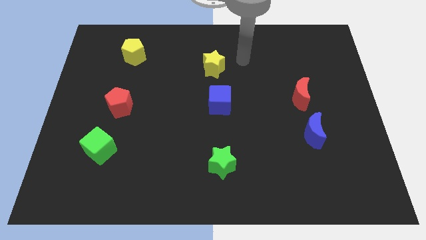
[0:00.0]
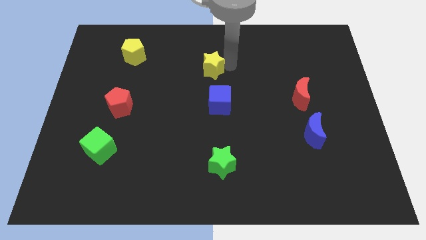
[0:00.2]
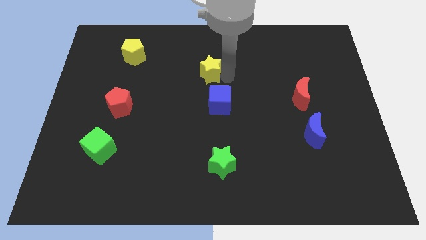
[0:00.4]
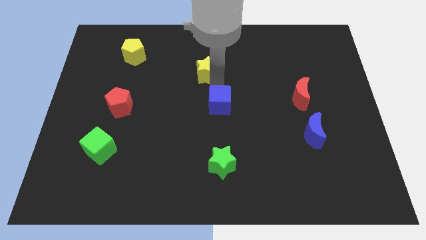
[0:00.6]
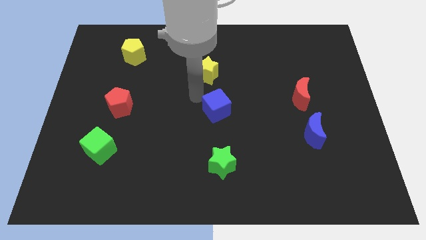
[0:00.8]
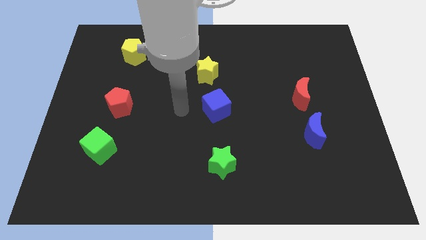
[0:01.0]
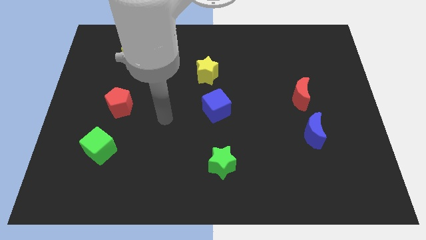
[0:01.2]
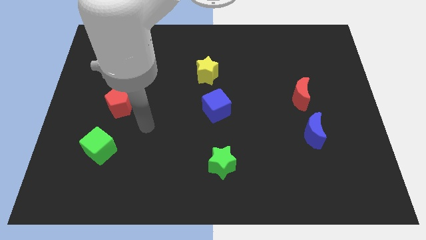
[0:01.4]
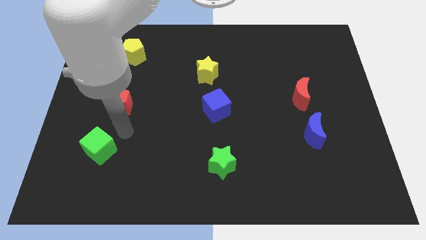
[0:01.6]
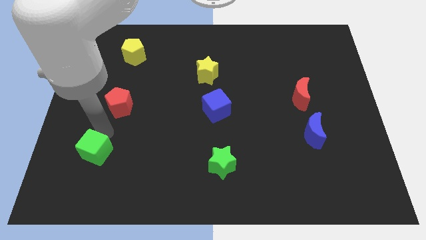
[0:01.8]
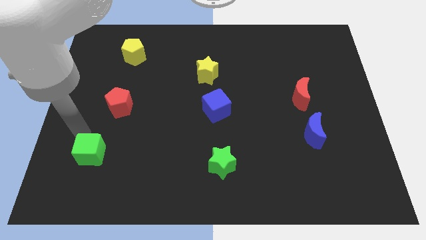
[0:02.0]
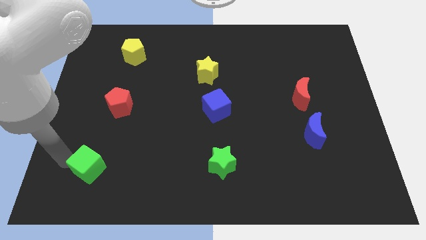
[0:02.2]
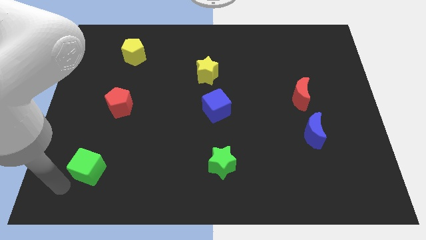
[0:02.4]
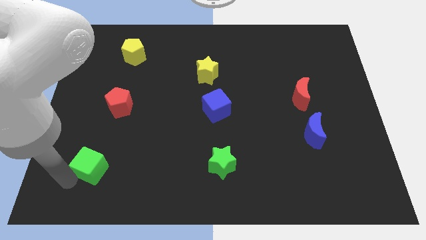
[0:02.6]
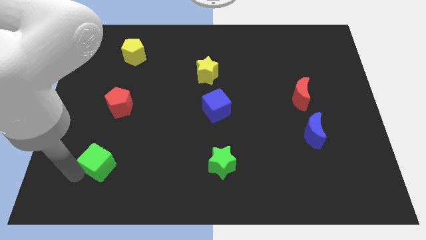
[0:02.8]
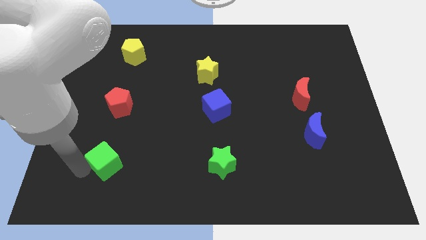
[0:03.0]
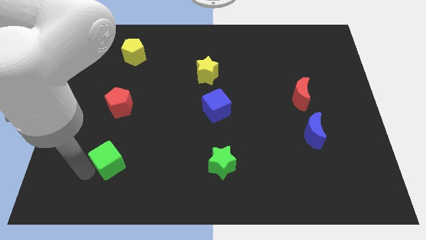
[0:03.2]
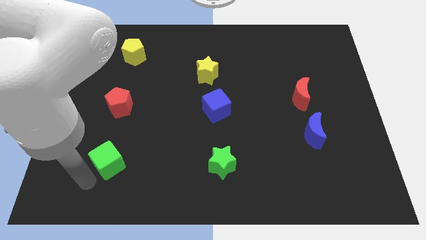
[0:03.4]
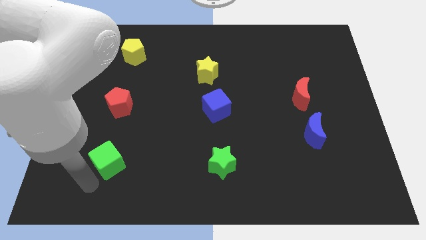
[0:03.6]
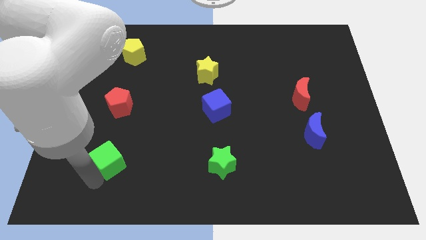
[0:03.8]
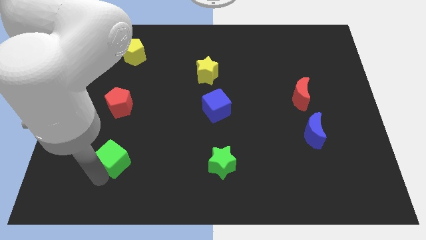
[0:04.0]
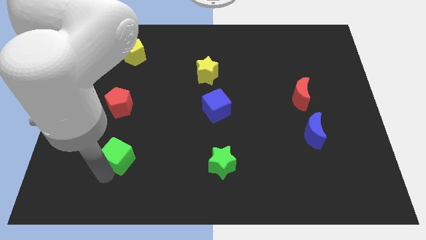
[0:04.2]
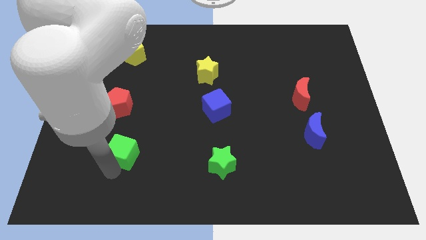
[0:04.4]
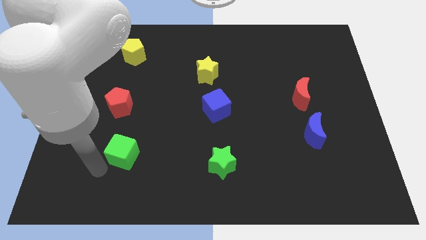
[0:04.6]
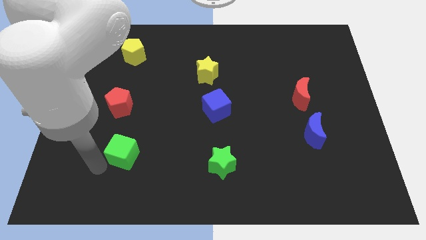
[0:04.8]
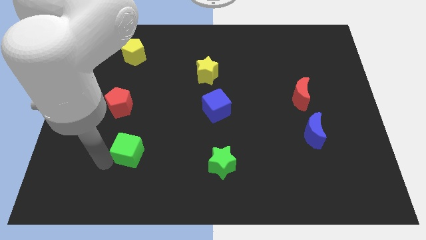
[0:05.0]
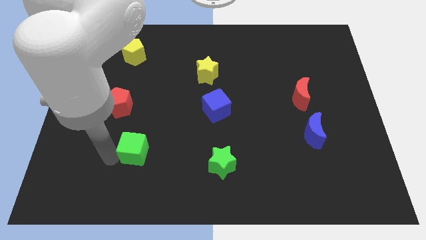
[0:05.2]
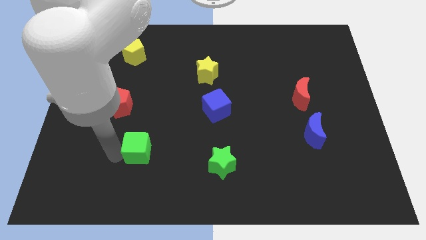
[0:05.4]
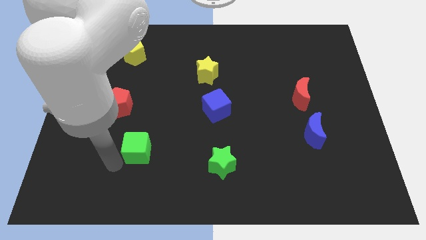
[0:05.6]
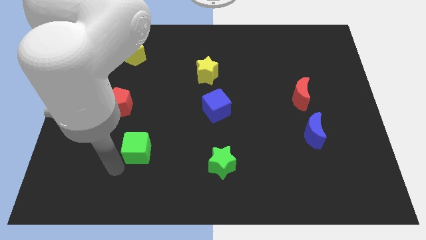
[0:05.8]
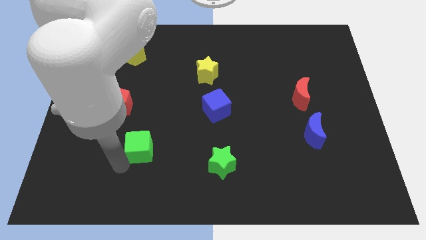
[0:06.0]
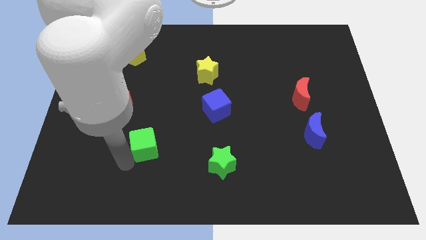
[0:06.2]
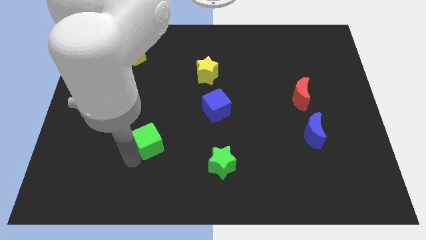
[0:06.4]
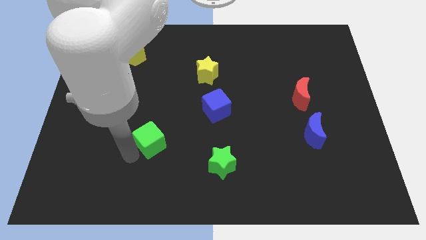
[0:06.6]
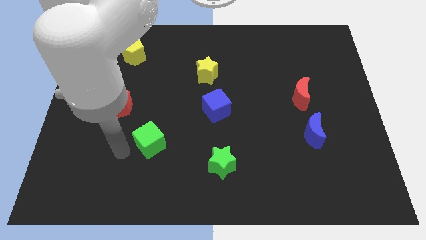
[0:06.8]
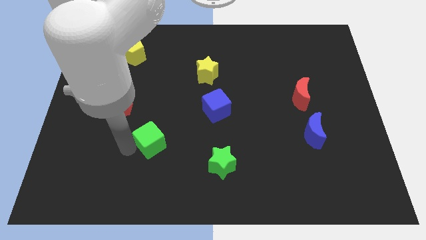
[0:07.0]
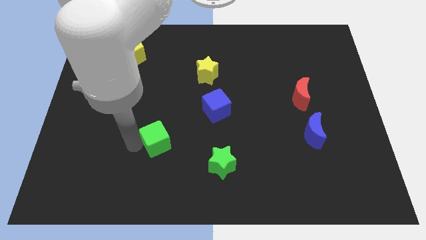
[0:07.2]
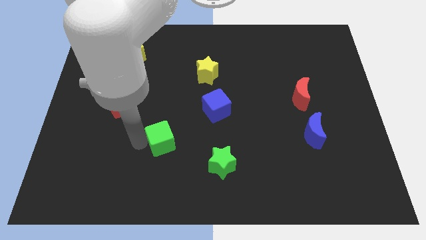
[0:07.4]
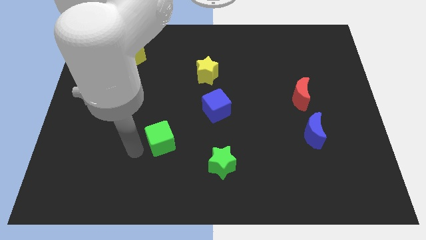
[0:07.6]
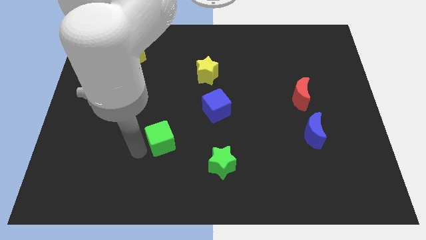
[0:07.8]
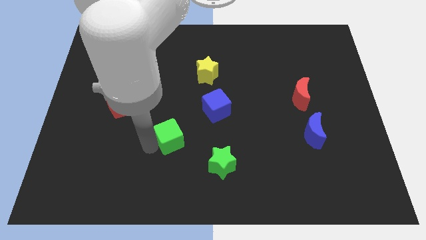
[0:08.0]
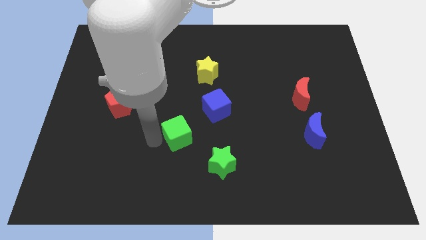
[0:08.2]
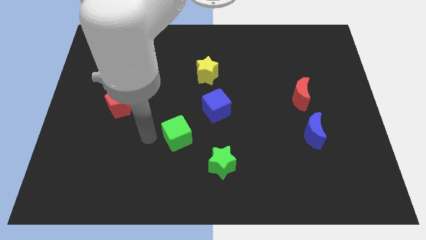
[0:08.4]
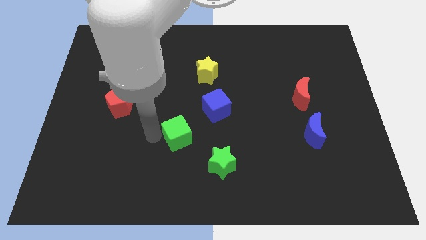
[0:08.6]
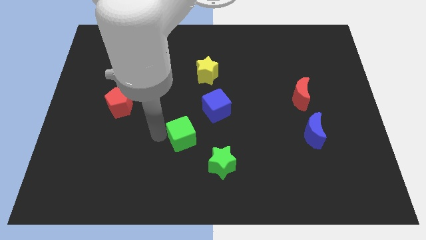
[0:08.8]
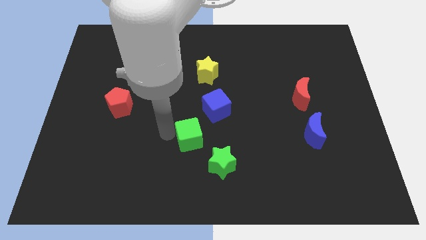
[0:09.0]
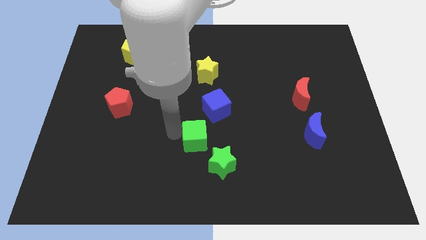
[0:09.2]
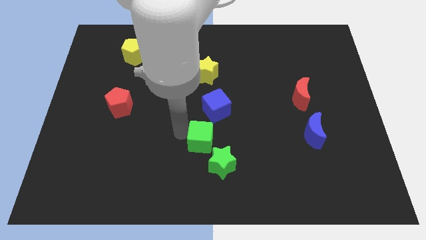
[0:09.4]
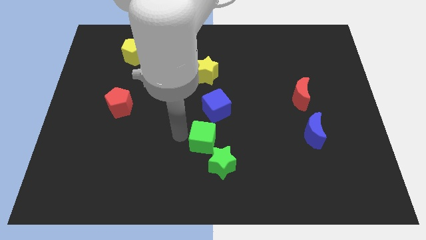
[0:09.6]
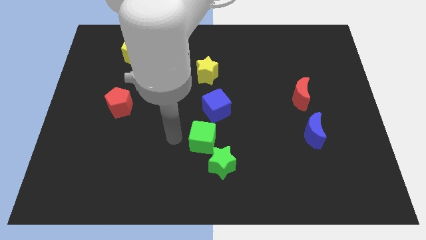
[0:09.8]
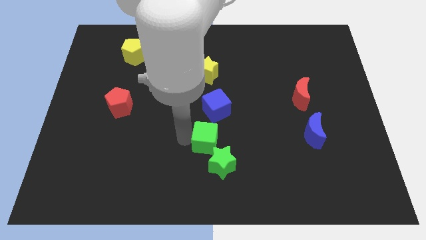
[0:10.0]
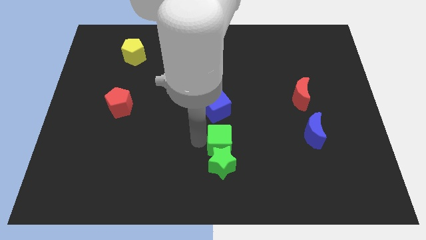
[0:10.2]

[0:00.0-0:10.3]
move the green cube to the top right side of the green star
